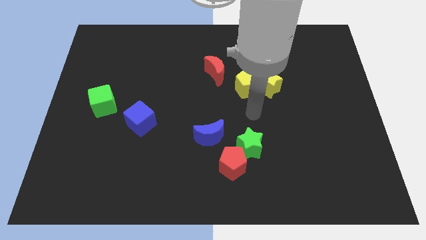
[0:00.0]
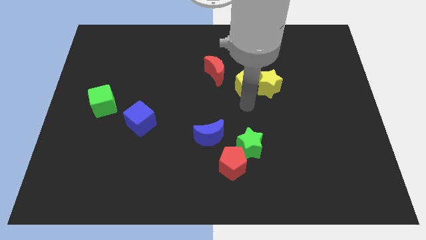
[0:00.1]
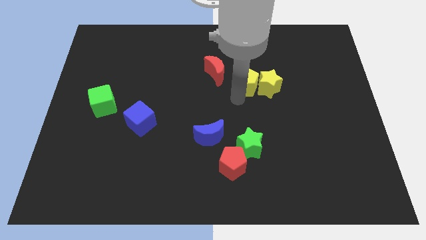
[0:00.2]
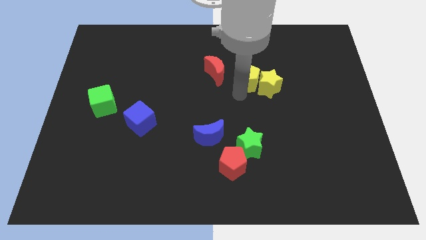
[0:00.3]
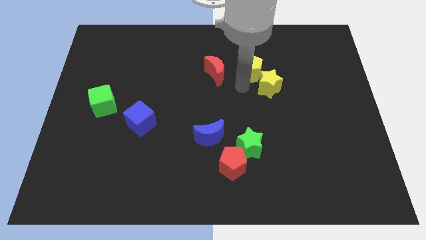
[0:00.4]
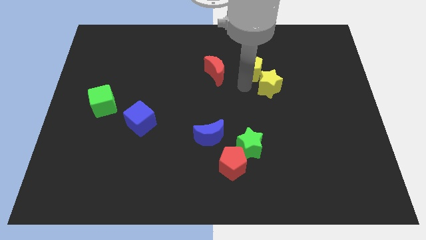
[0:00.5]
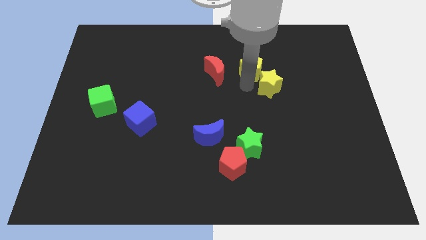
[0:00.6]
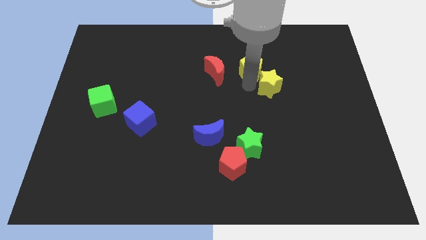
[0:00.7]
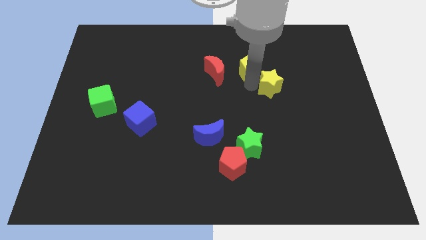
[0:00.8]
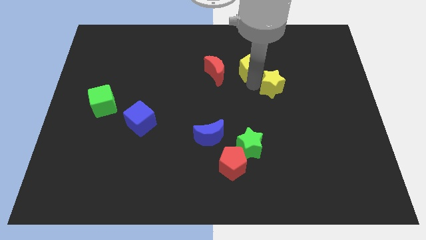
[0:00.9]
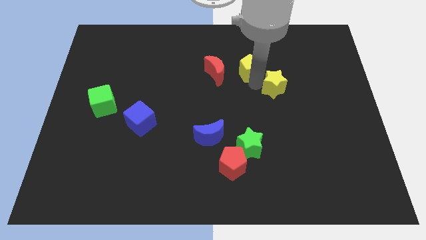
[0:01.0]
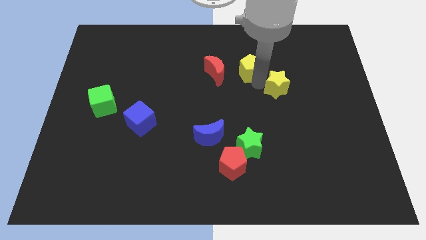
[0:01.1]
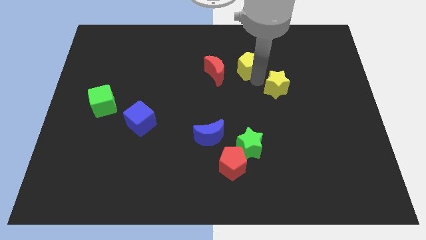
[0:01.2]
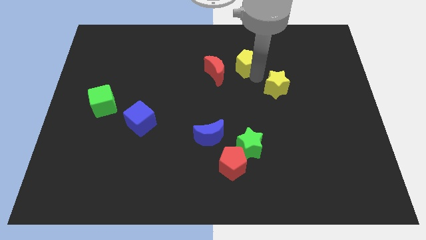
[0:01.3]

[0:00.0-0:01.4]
move the yellow star away from the yellow pentagon

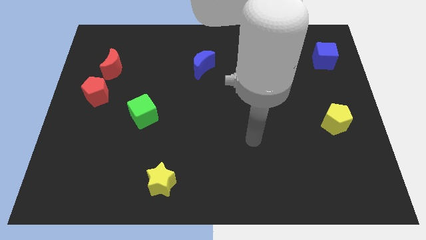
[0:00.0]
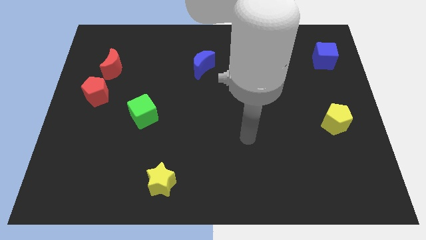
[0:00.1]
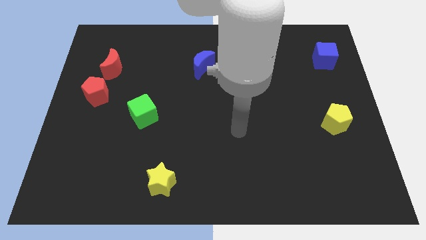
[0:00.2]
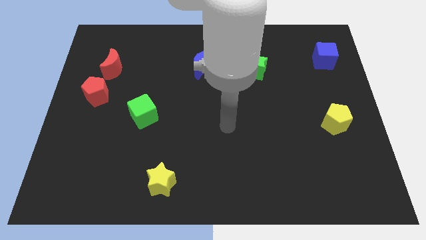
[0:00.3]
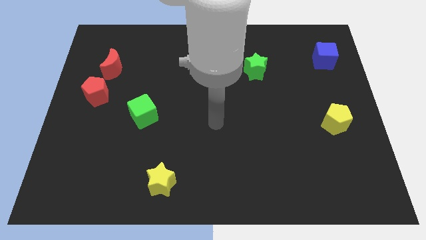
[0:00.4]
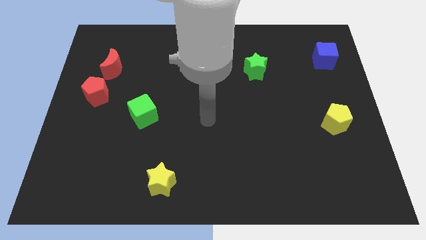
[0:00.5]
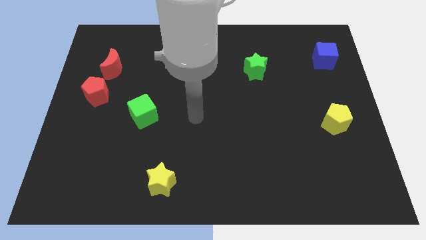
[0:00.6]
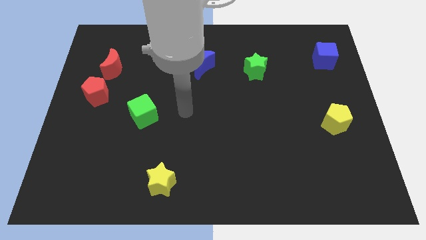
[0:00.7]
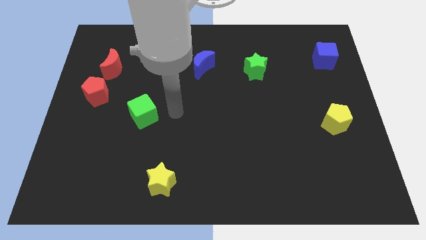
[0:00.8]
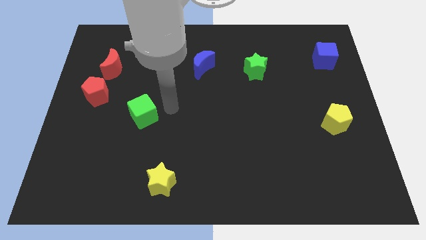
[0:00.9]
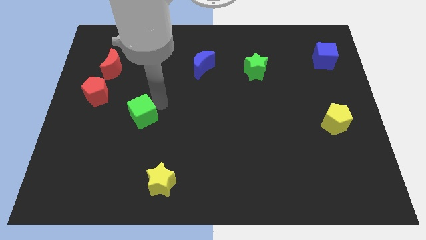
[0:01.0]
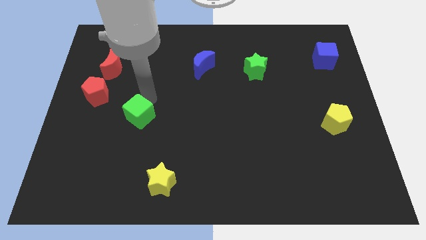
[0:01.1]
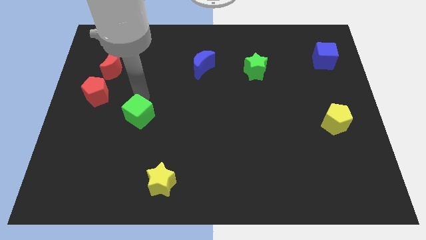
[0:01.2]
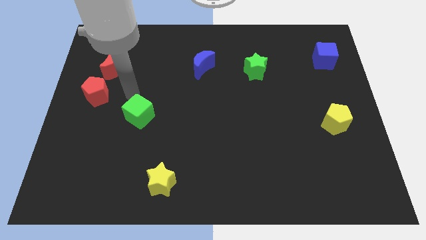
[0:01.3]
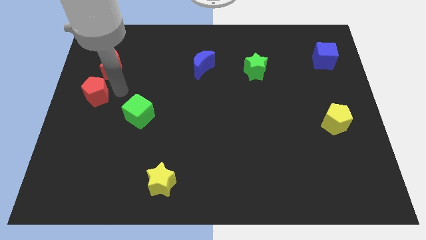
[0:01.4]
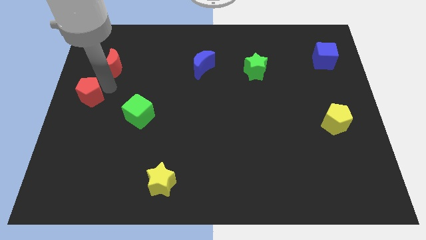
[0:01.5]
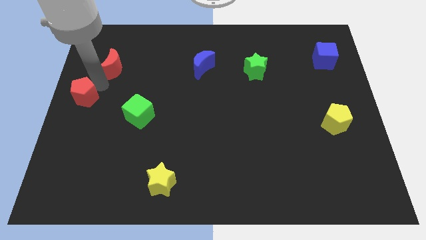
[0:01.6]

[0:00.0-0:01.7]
move the red moon away from the red pentagon

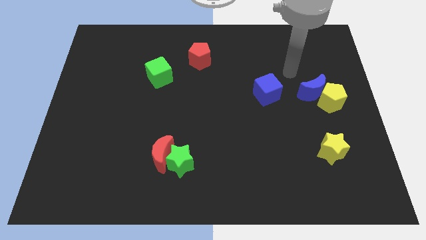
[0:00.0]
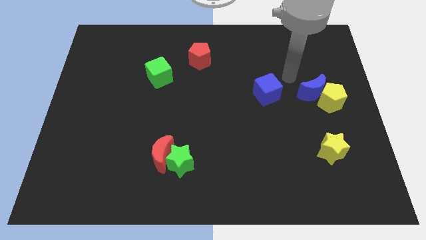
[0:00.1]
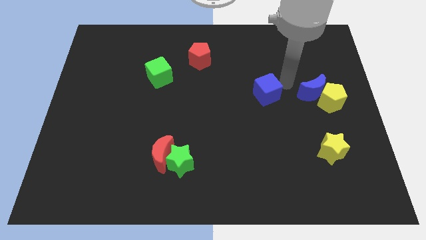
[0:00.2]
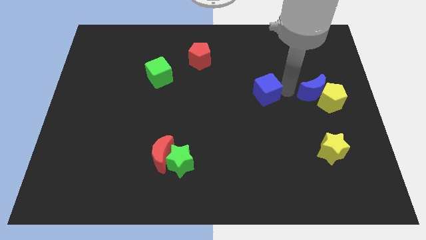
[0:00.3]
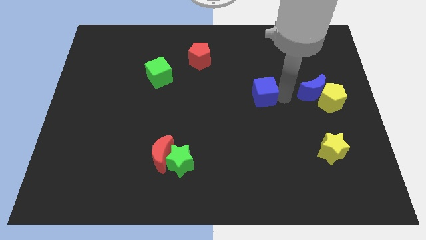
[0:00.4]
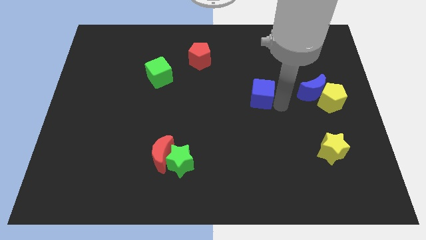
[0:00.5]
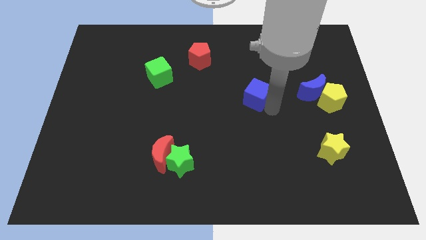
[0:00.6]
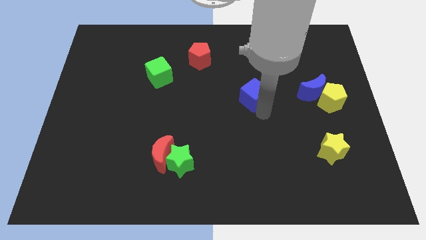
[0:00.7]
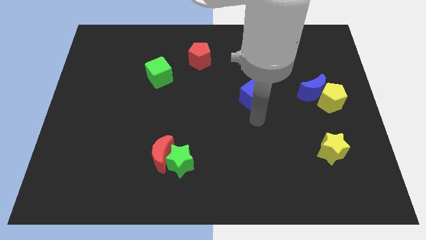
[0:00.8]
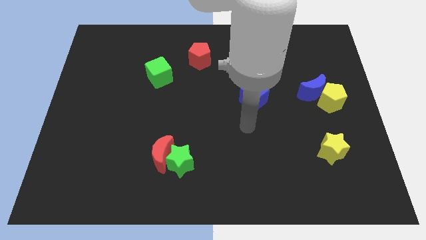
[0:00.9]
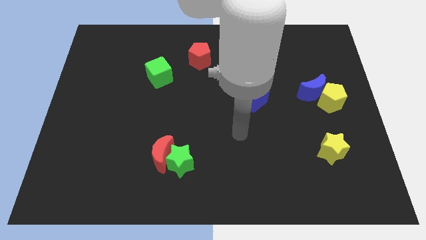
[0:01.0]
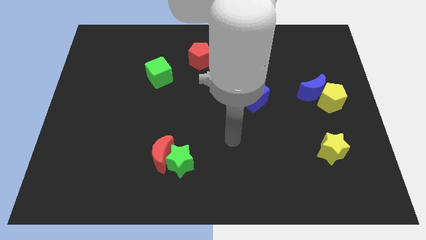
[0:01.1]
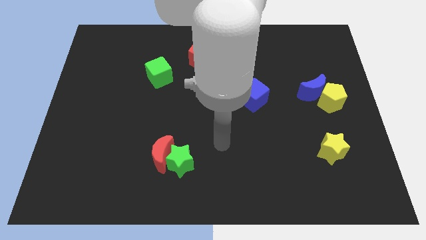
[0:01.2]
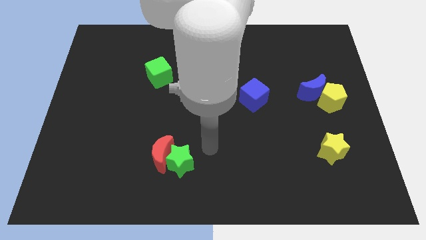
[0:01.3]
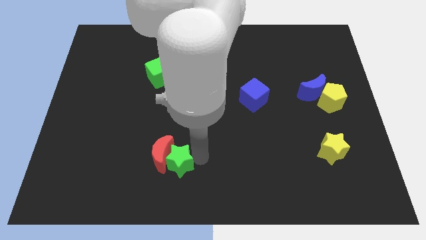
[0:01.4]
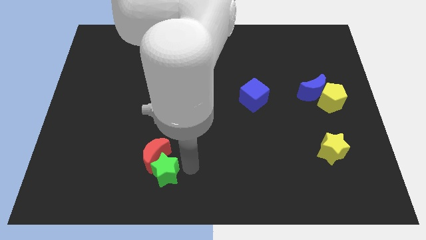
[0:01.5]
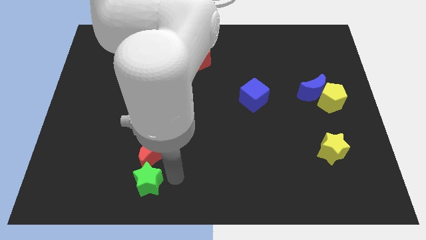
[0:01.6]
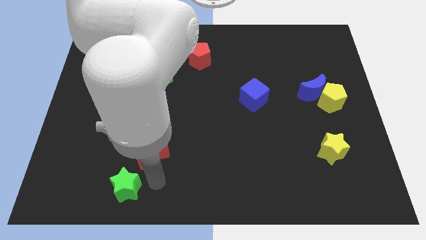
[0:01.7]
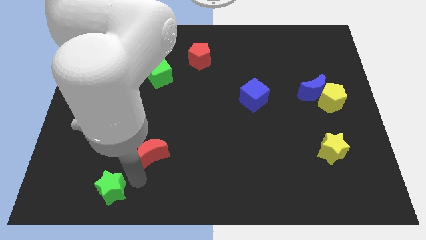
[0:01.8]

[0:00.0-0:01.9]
move the red moon away from the green star

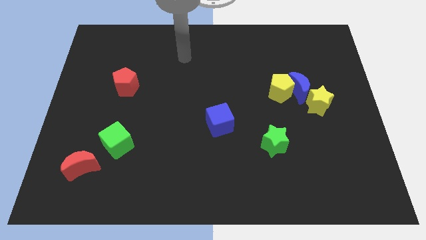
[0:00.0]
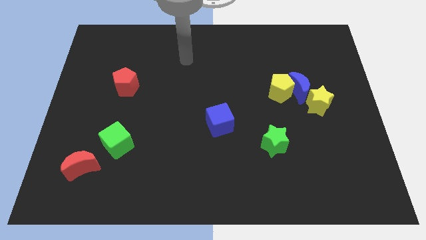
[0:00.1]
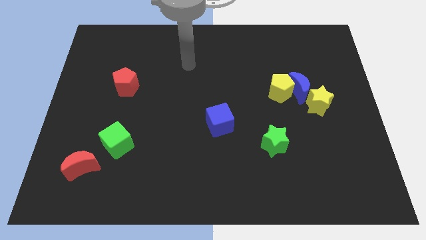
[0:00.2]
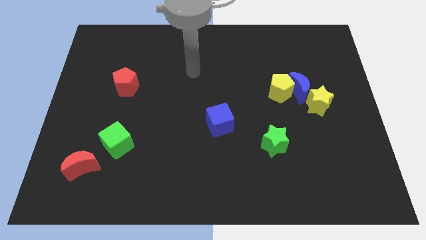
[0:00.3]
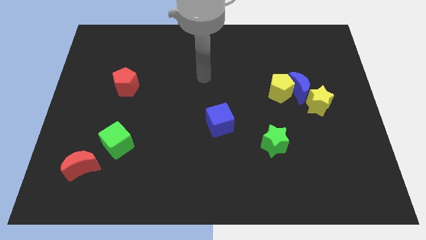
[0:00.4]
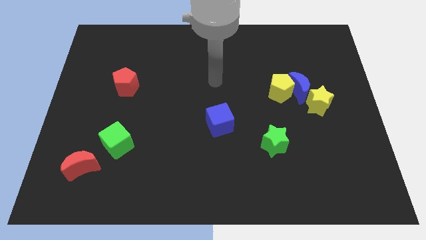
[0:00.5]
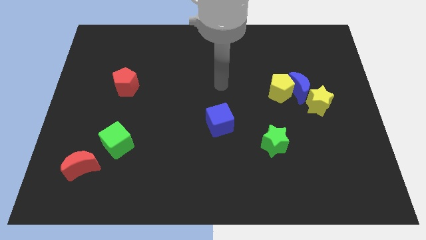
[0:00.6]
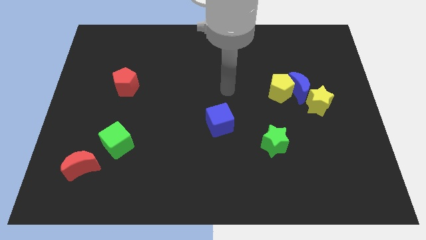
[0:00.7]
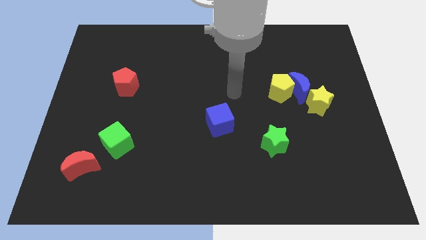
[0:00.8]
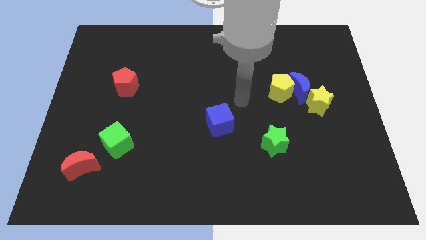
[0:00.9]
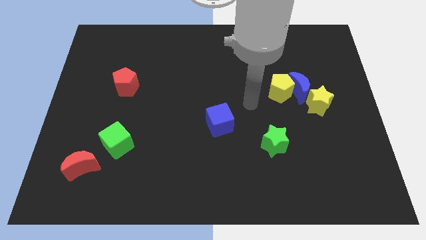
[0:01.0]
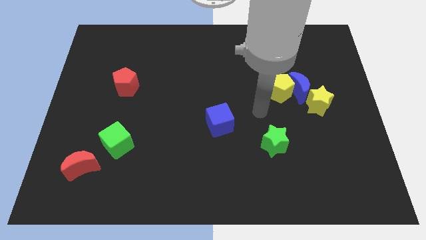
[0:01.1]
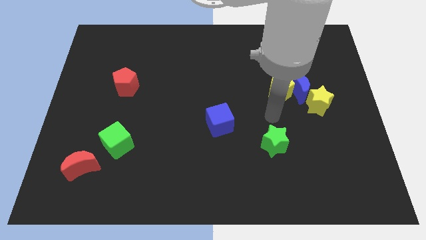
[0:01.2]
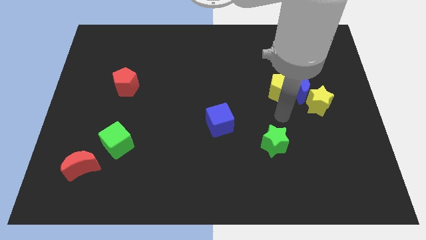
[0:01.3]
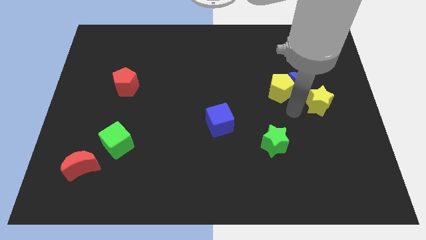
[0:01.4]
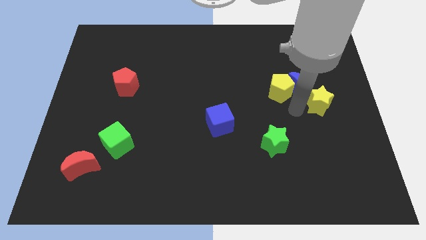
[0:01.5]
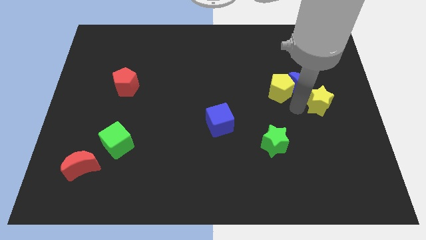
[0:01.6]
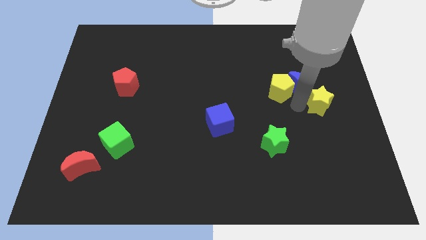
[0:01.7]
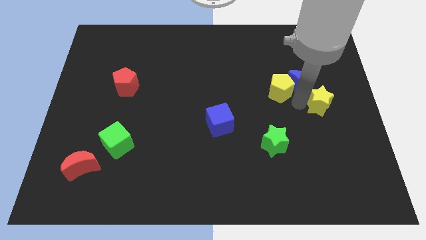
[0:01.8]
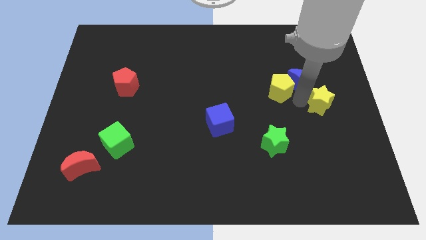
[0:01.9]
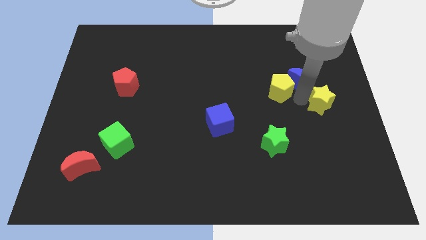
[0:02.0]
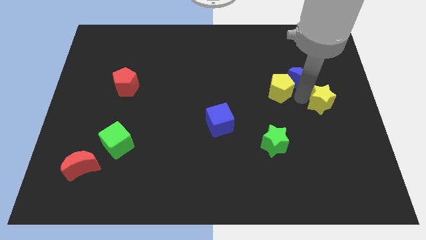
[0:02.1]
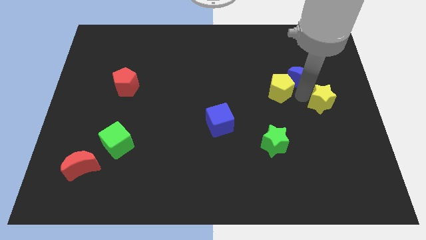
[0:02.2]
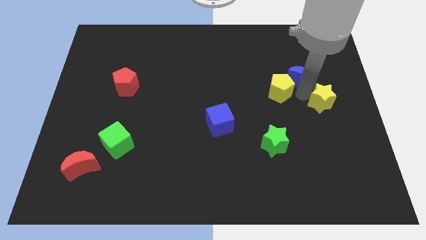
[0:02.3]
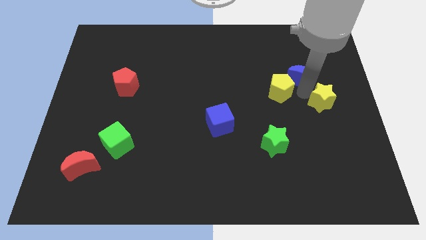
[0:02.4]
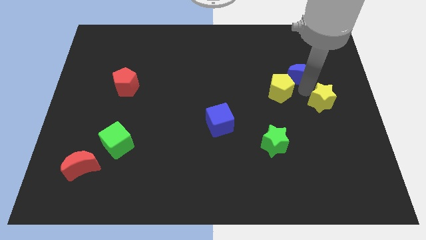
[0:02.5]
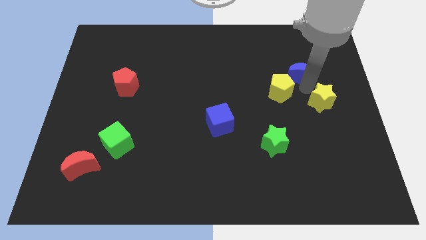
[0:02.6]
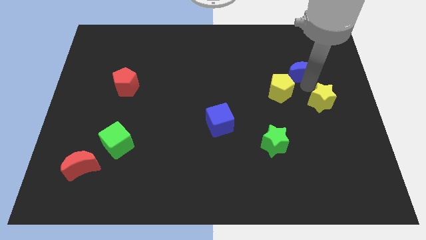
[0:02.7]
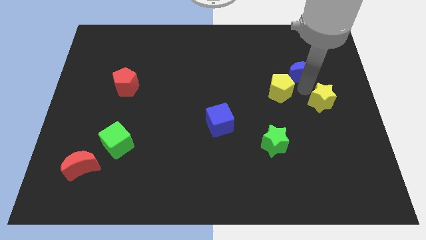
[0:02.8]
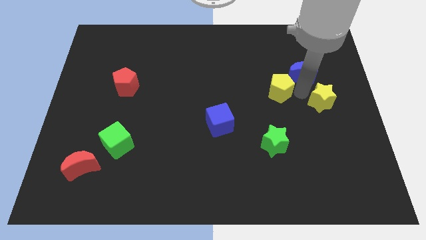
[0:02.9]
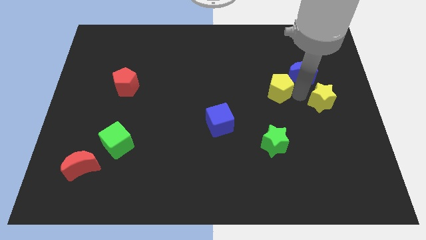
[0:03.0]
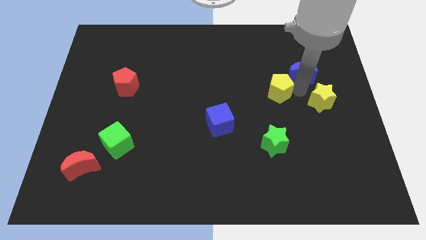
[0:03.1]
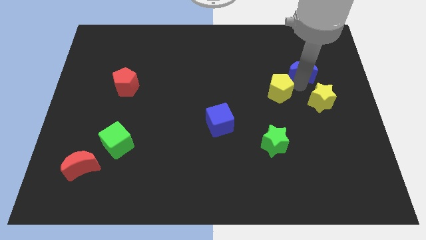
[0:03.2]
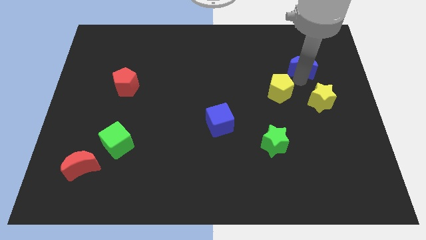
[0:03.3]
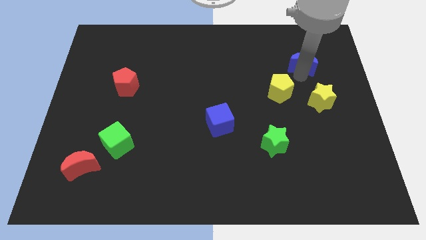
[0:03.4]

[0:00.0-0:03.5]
separate the blue moon from the yellow pentagon and yellow star

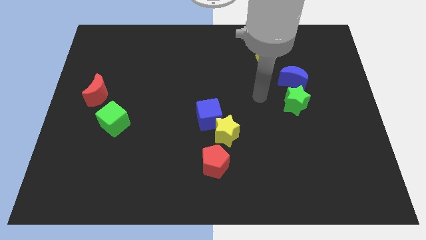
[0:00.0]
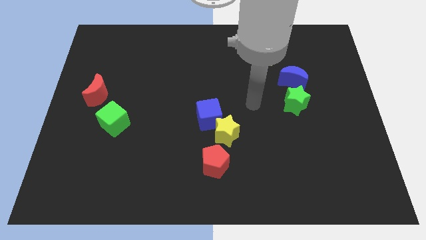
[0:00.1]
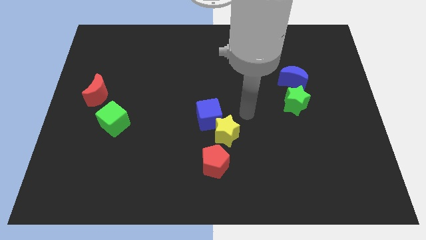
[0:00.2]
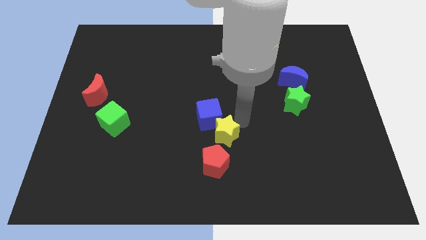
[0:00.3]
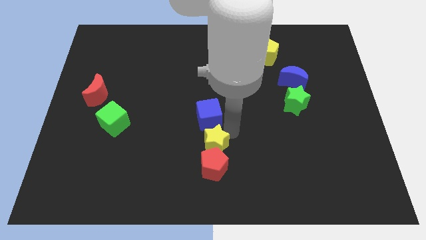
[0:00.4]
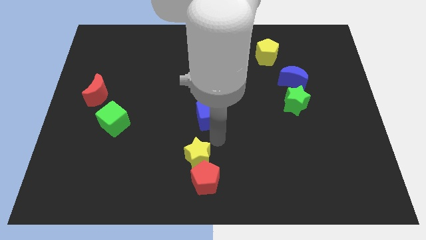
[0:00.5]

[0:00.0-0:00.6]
pull the blue cube apart from the yellow star

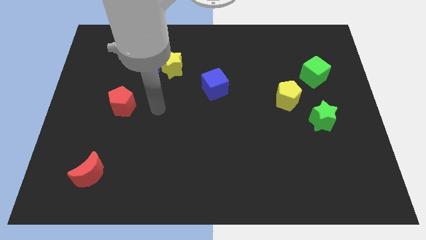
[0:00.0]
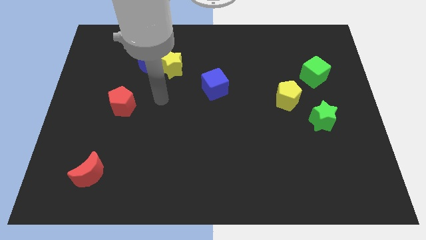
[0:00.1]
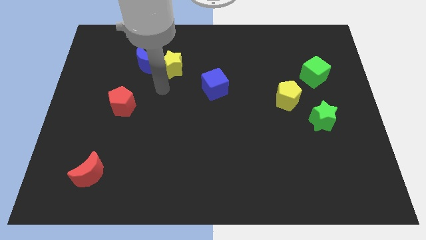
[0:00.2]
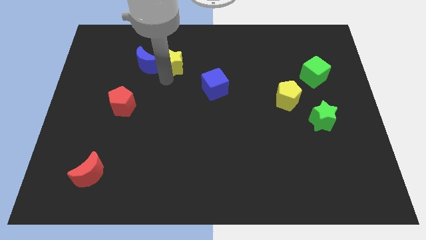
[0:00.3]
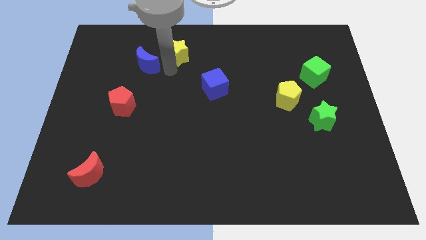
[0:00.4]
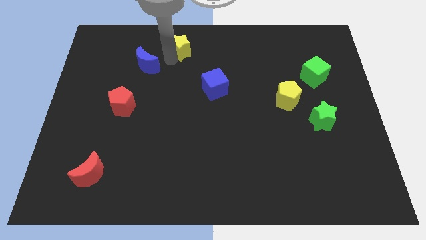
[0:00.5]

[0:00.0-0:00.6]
pull the blue moon apart from the yellow star
